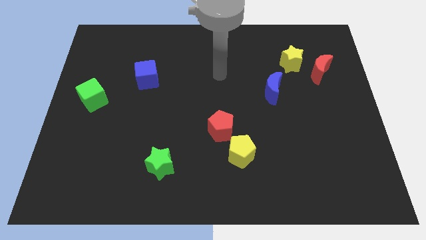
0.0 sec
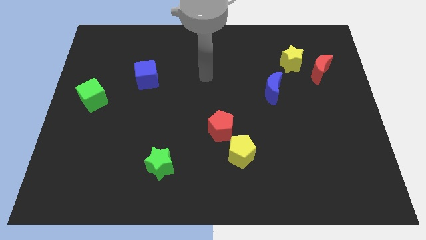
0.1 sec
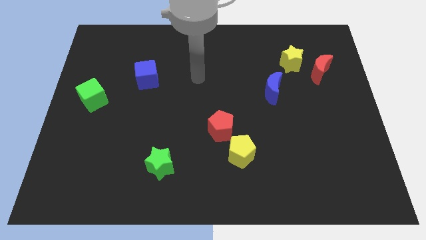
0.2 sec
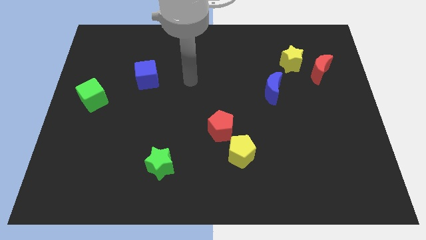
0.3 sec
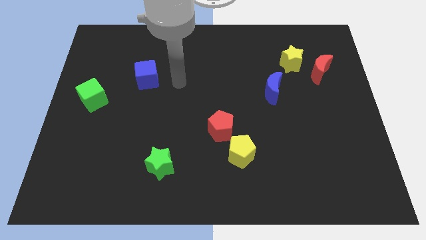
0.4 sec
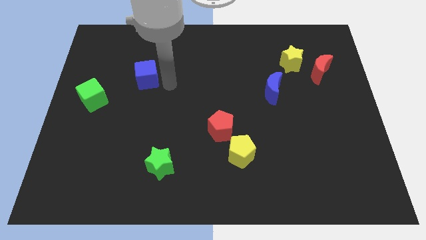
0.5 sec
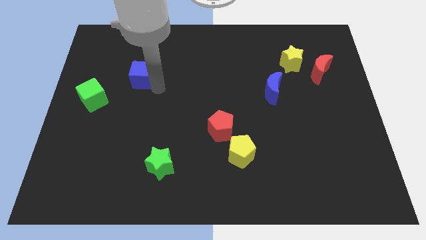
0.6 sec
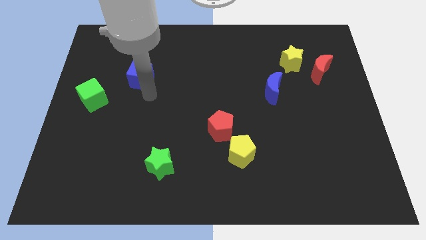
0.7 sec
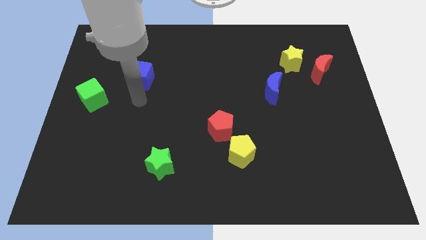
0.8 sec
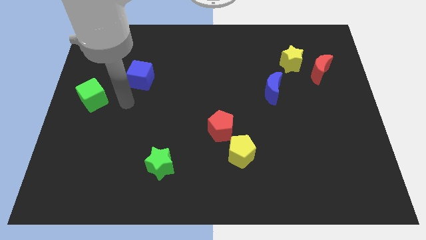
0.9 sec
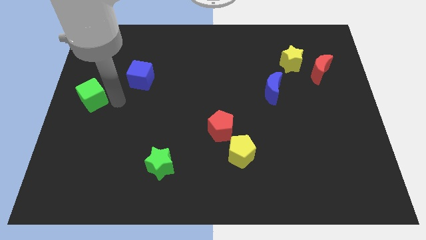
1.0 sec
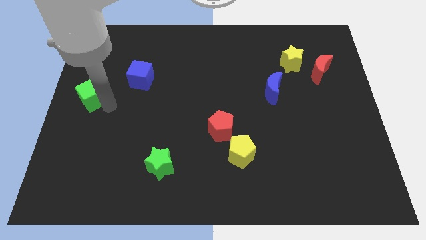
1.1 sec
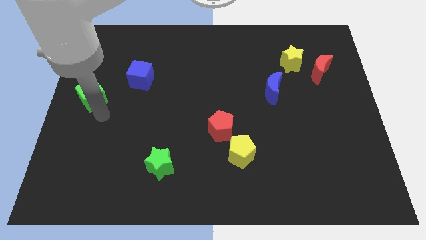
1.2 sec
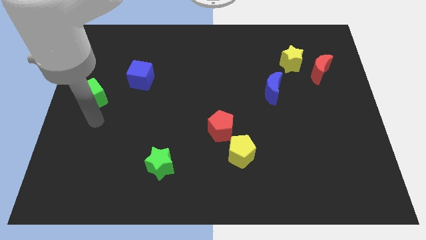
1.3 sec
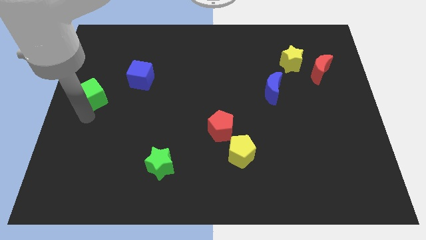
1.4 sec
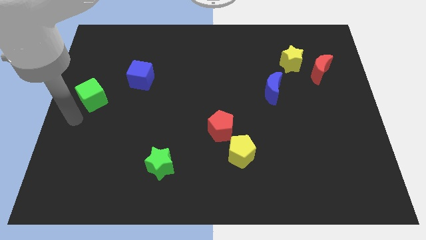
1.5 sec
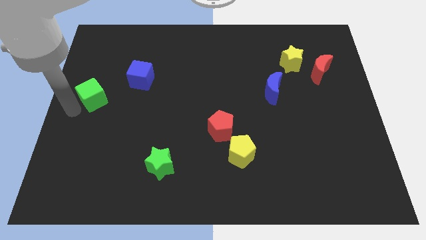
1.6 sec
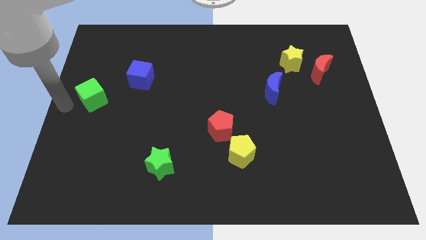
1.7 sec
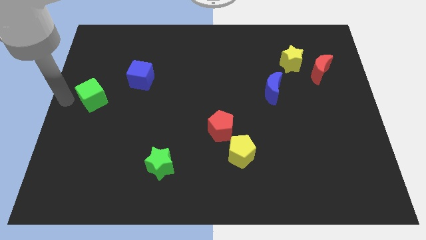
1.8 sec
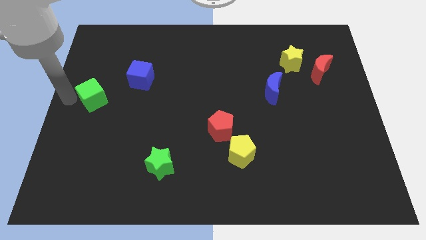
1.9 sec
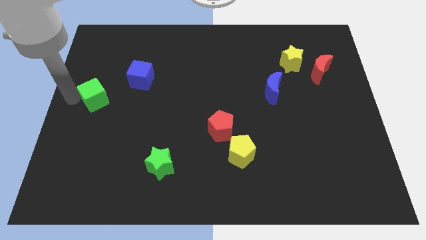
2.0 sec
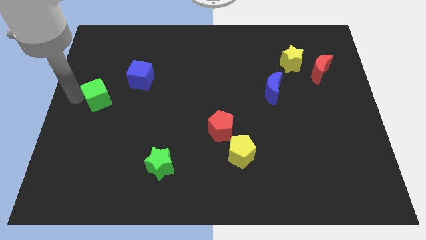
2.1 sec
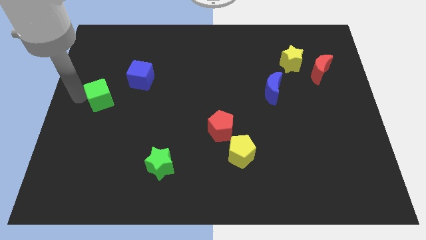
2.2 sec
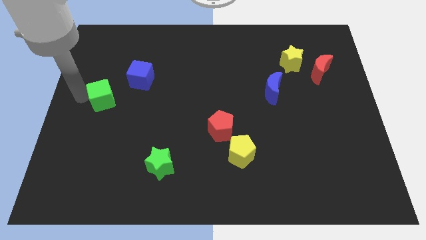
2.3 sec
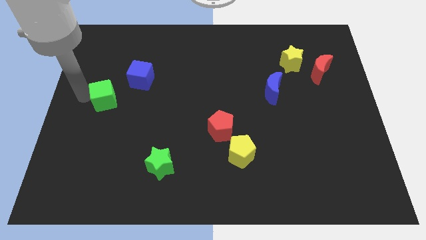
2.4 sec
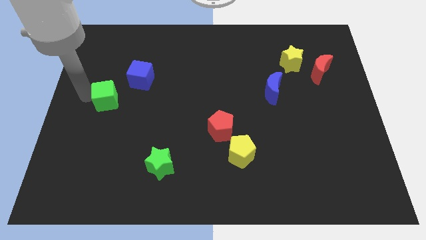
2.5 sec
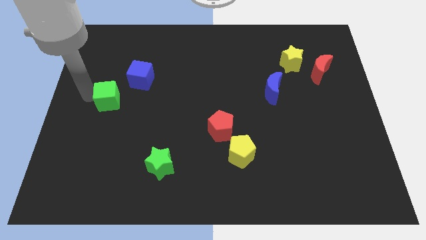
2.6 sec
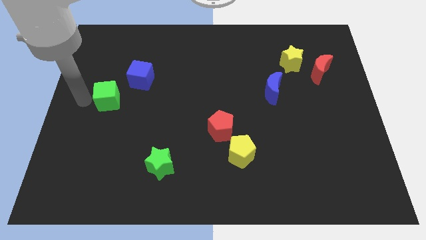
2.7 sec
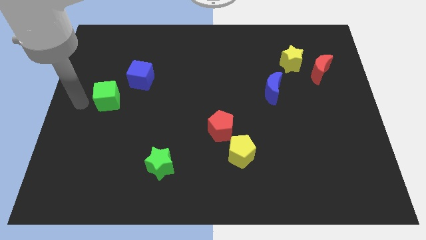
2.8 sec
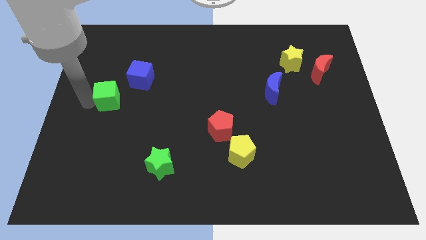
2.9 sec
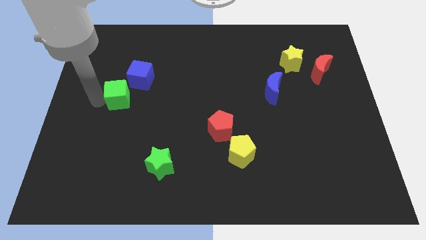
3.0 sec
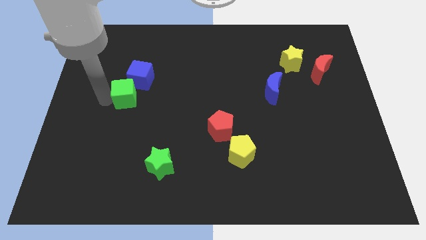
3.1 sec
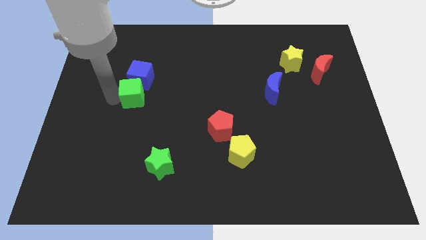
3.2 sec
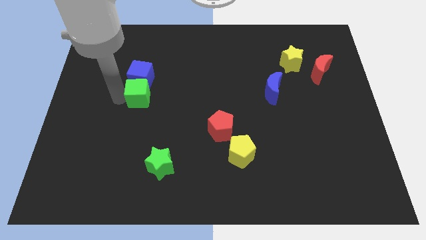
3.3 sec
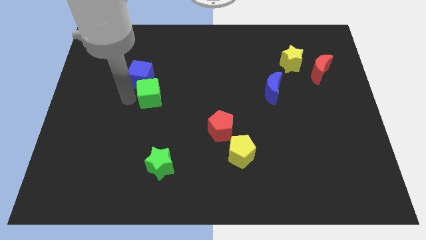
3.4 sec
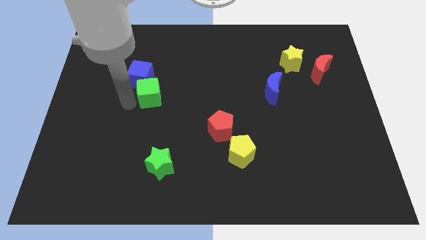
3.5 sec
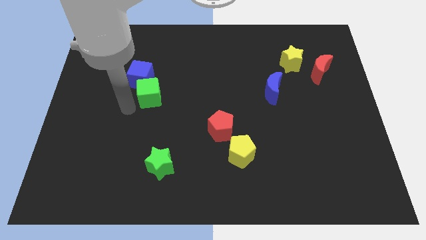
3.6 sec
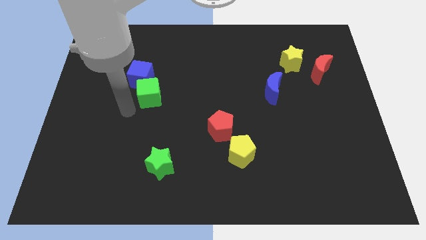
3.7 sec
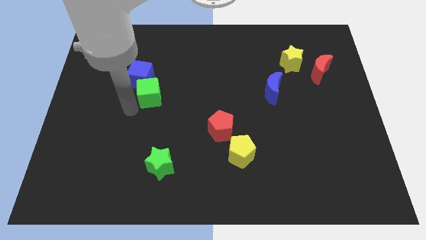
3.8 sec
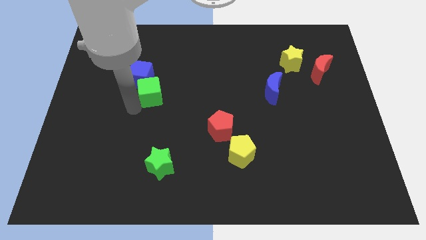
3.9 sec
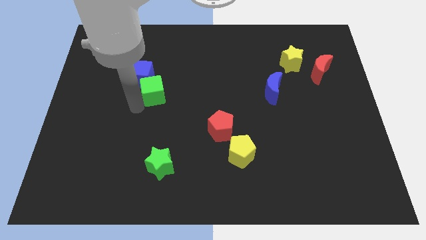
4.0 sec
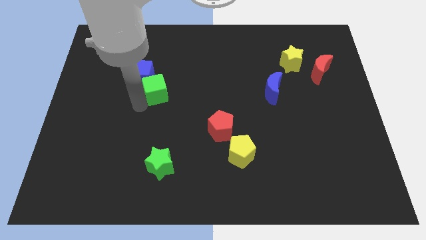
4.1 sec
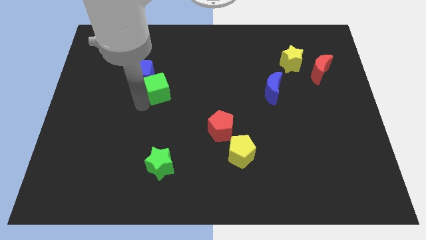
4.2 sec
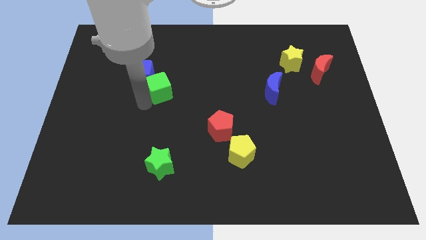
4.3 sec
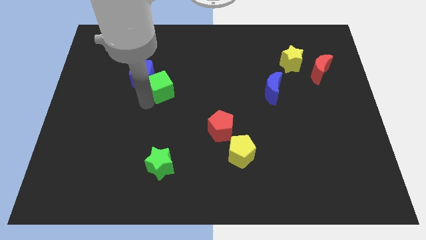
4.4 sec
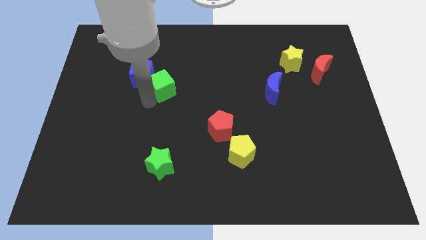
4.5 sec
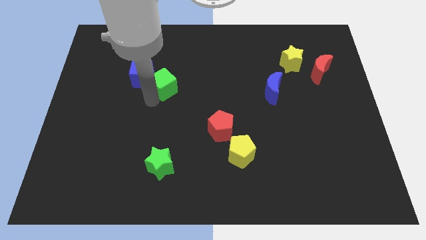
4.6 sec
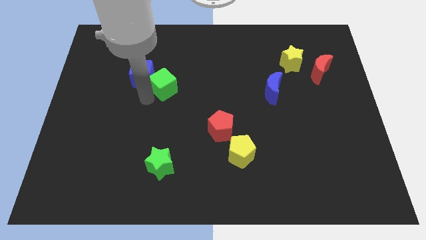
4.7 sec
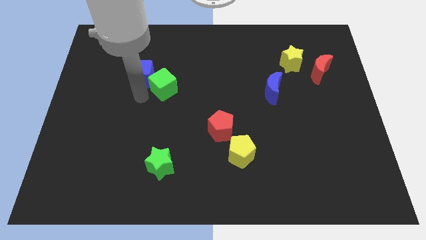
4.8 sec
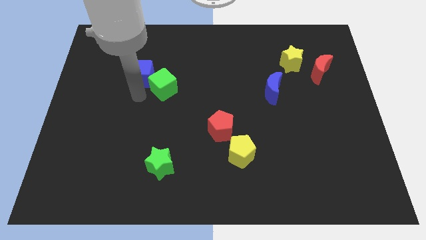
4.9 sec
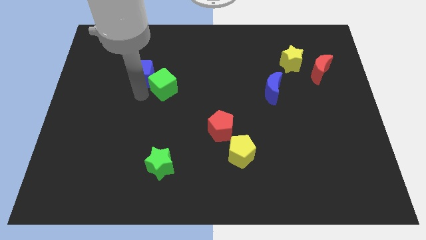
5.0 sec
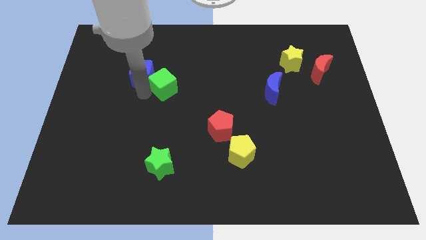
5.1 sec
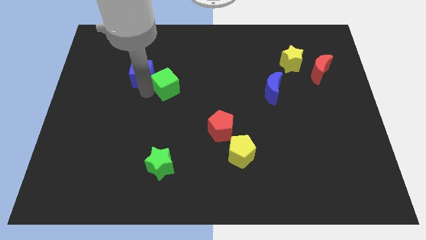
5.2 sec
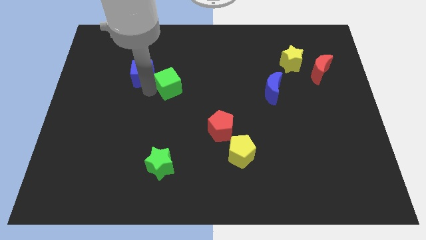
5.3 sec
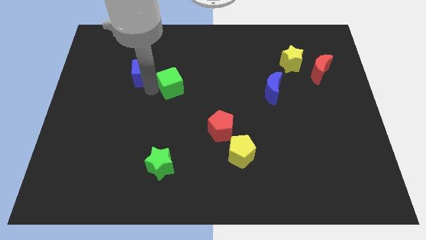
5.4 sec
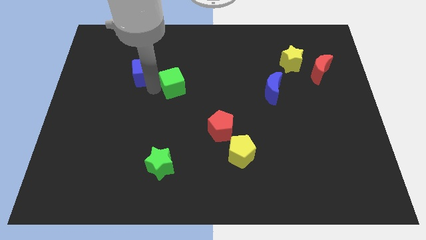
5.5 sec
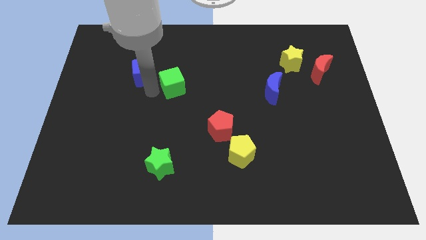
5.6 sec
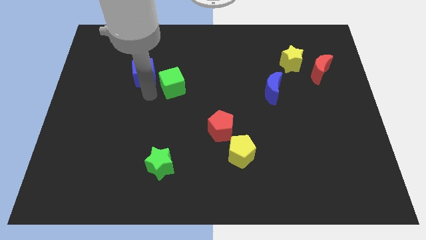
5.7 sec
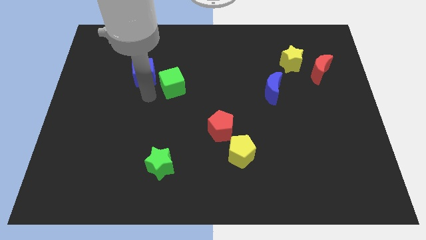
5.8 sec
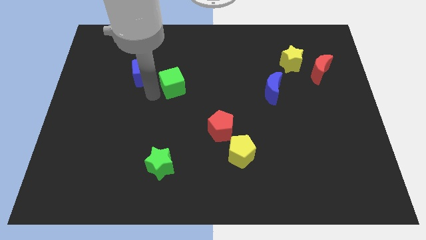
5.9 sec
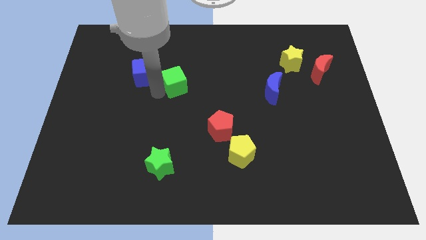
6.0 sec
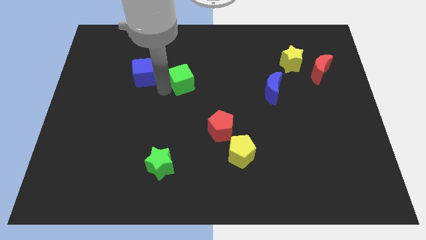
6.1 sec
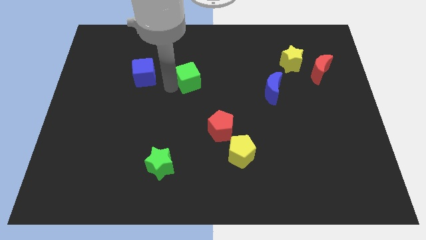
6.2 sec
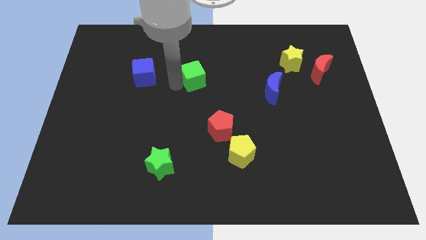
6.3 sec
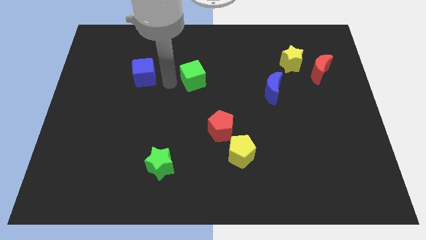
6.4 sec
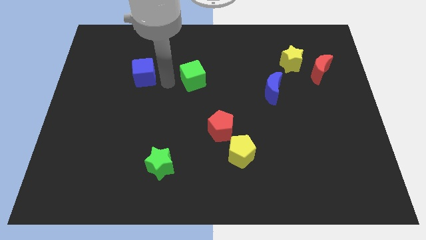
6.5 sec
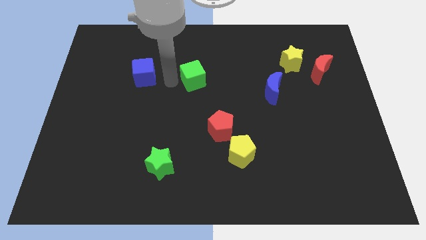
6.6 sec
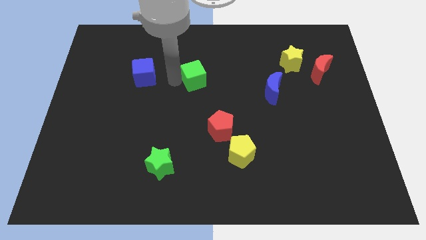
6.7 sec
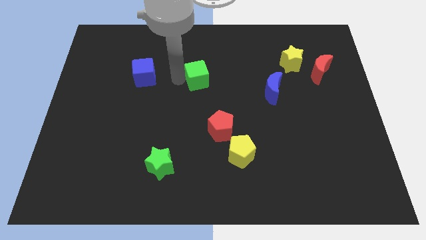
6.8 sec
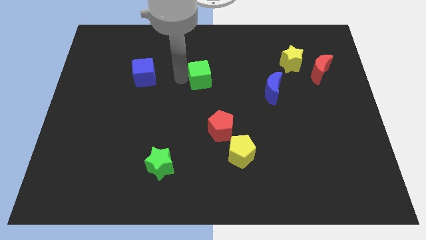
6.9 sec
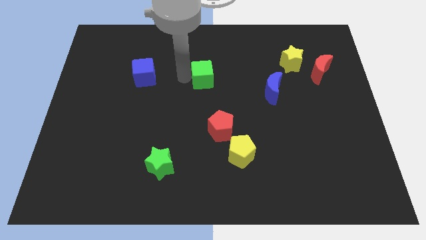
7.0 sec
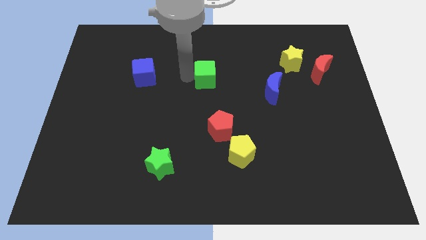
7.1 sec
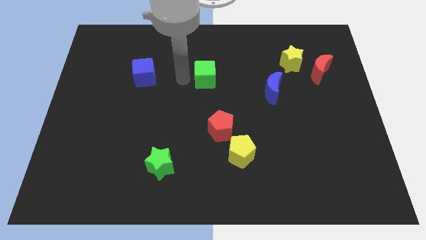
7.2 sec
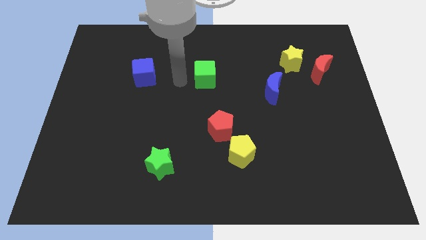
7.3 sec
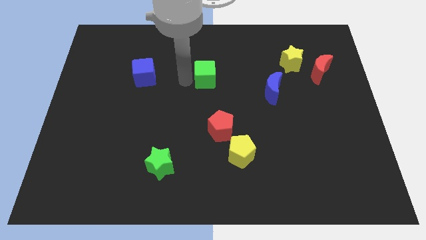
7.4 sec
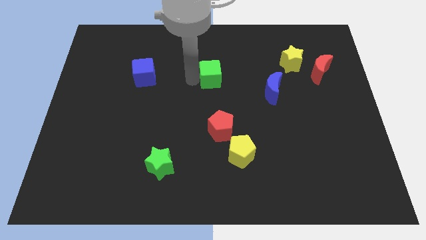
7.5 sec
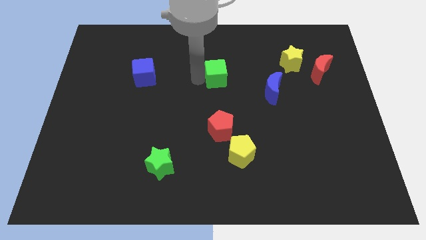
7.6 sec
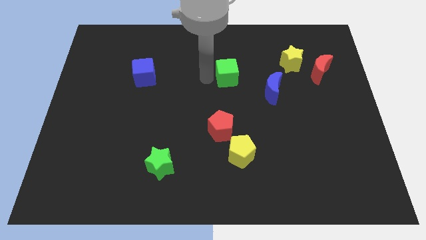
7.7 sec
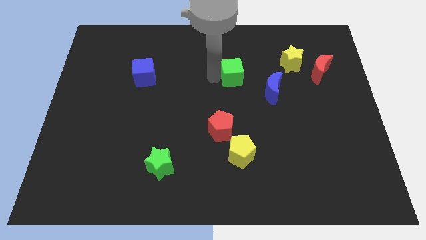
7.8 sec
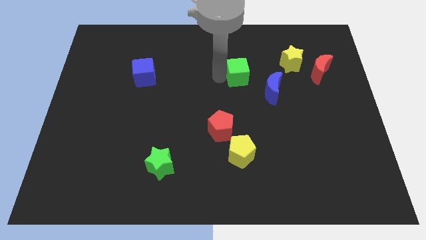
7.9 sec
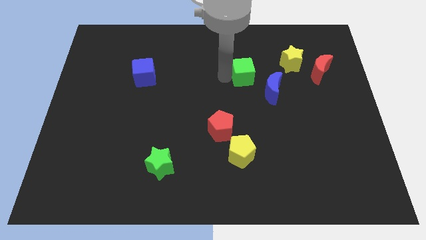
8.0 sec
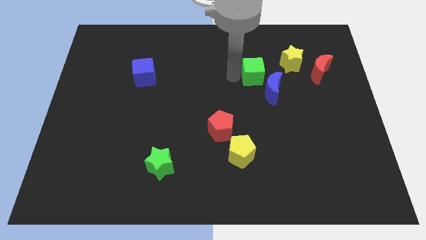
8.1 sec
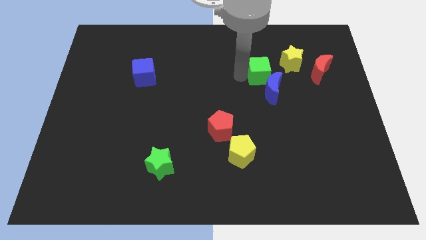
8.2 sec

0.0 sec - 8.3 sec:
push the green cube just left of the red moon
